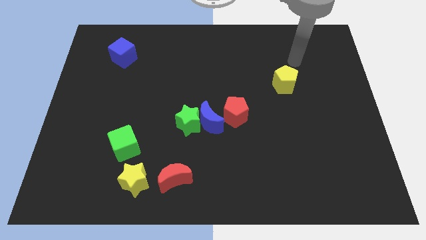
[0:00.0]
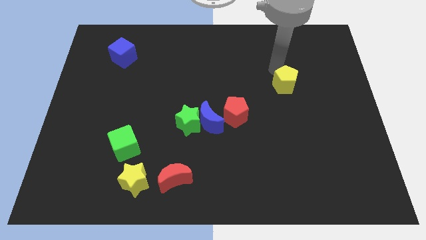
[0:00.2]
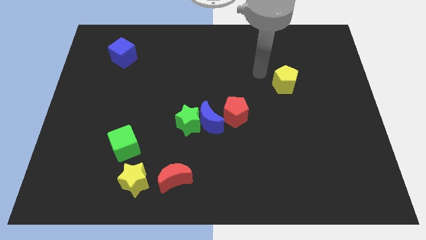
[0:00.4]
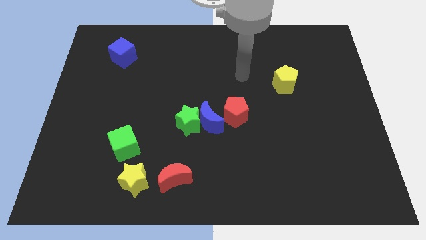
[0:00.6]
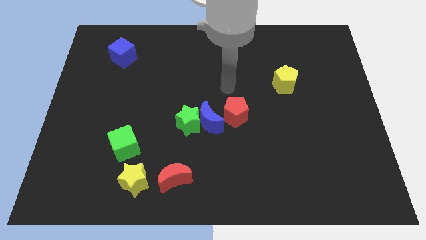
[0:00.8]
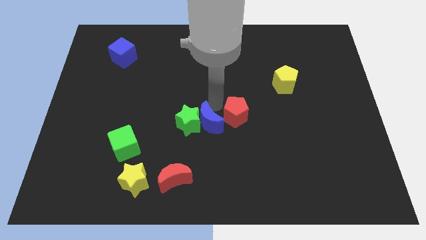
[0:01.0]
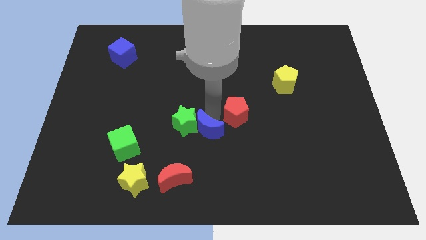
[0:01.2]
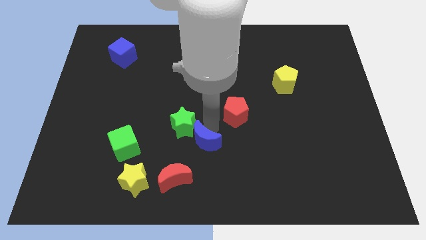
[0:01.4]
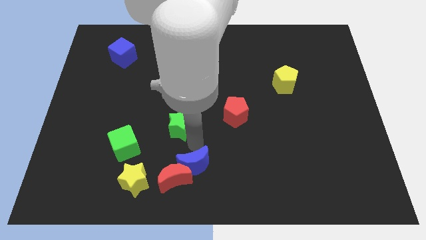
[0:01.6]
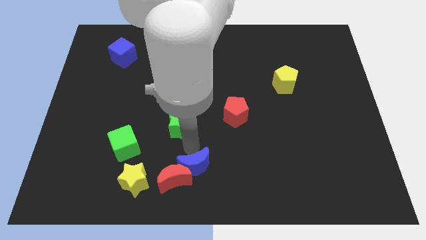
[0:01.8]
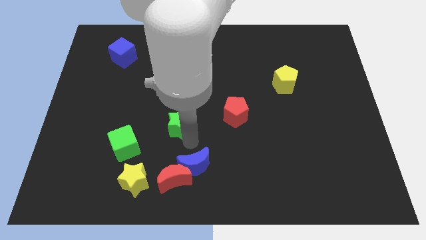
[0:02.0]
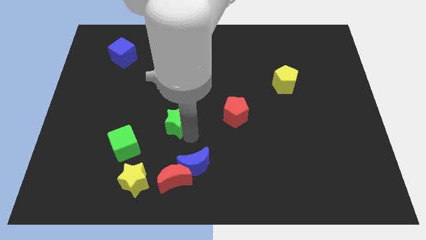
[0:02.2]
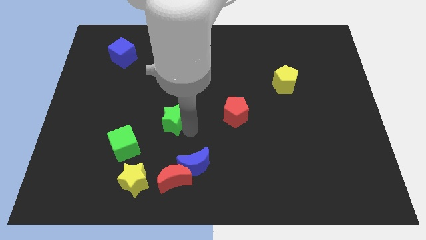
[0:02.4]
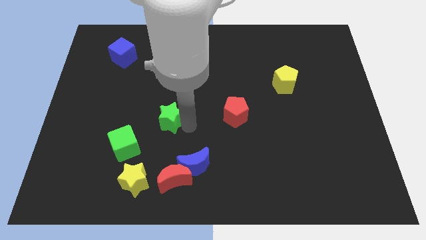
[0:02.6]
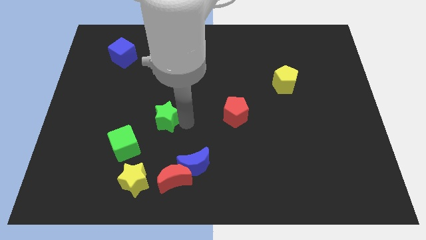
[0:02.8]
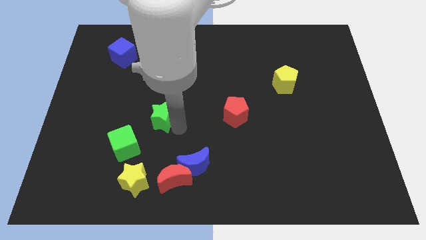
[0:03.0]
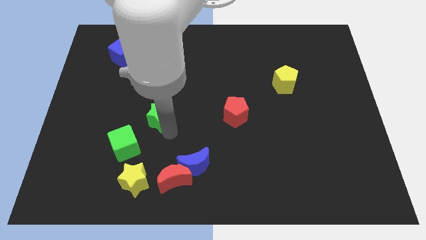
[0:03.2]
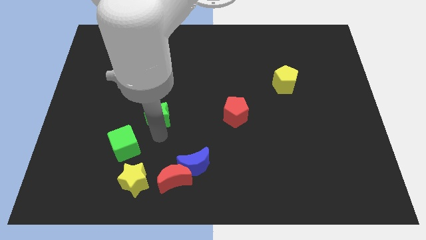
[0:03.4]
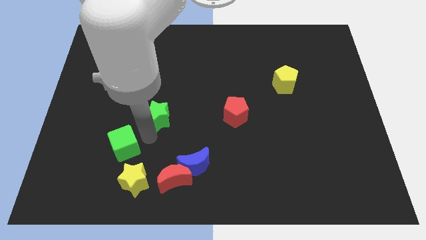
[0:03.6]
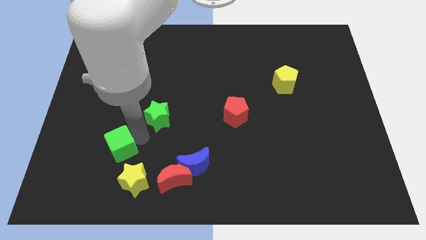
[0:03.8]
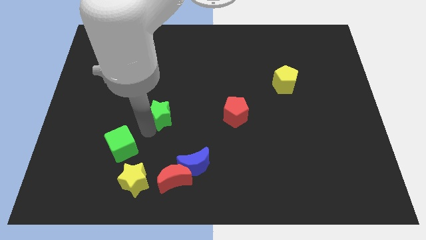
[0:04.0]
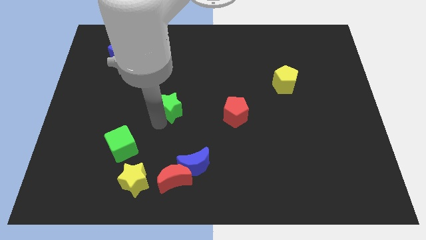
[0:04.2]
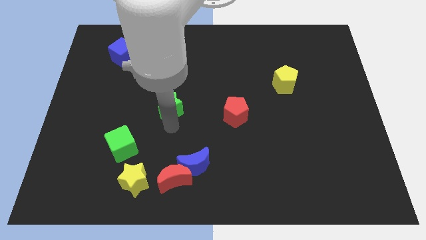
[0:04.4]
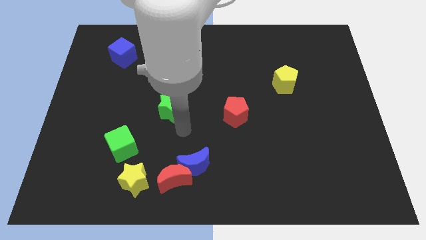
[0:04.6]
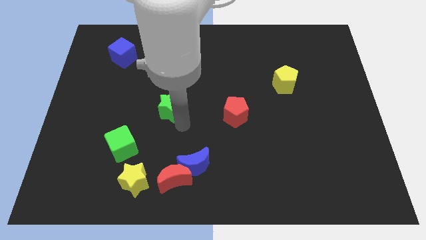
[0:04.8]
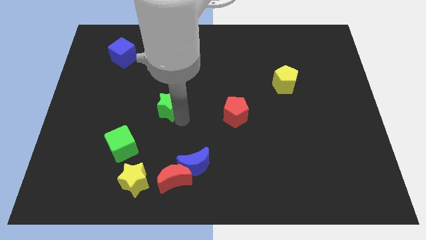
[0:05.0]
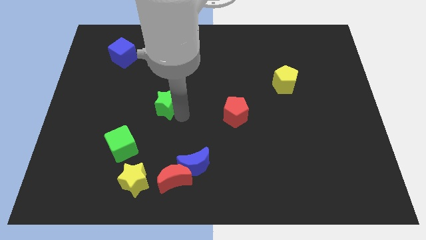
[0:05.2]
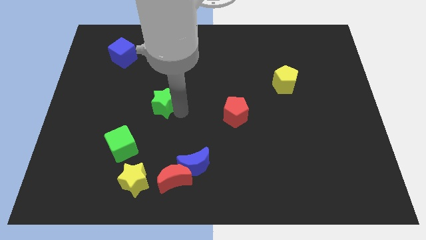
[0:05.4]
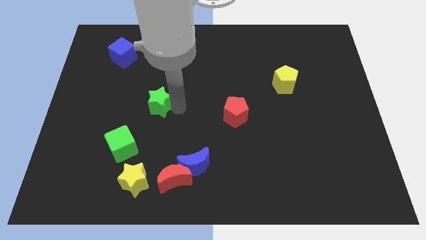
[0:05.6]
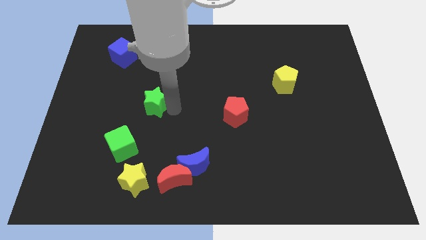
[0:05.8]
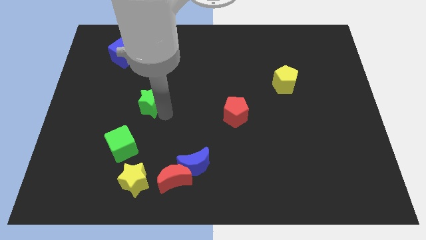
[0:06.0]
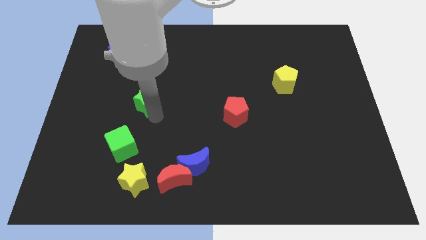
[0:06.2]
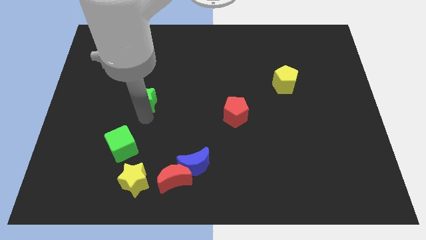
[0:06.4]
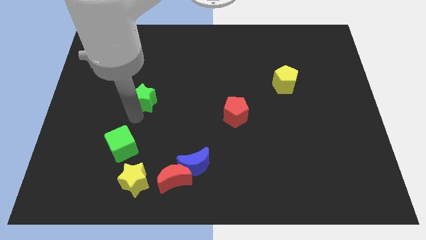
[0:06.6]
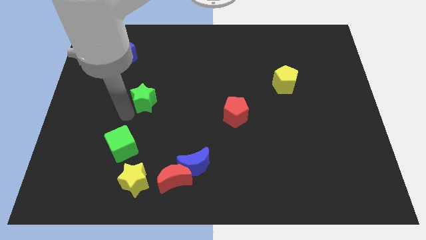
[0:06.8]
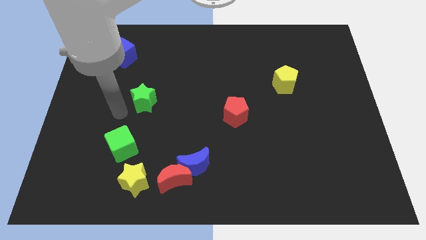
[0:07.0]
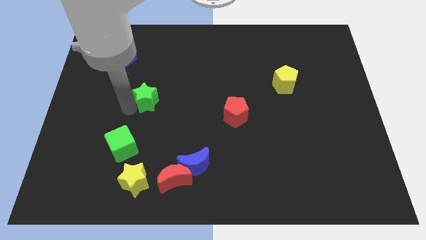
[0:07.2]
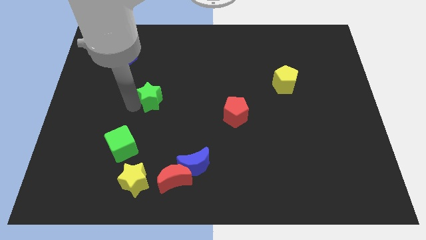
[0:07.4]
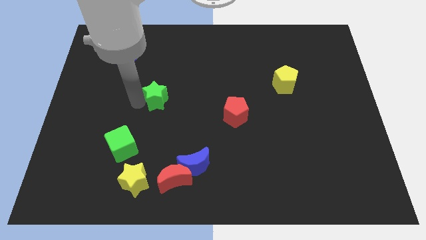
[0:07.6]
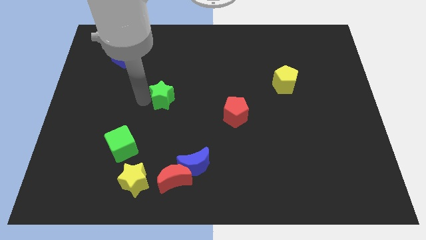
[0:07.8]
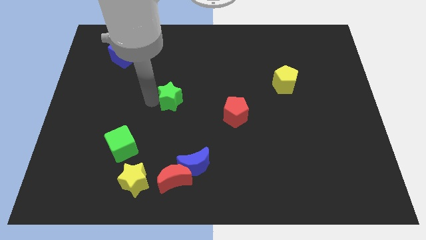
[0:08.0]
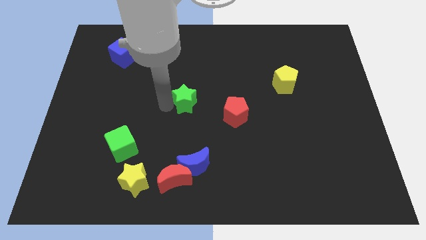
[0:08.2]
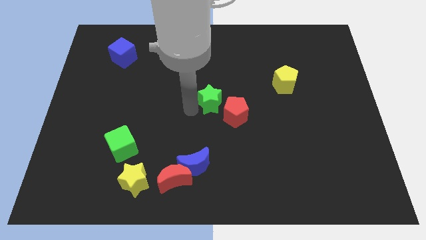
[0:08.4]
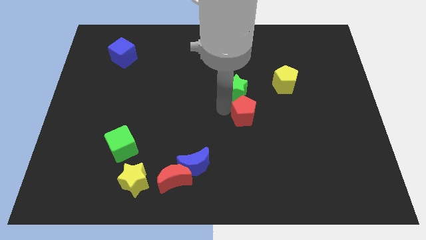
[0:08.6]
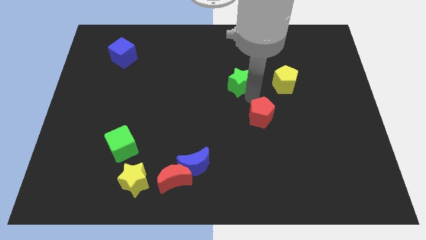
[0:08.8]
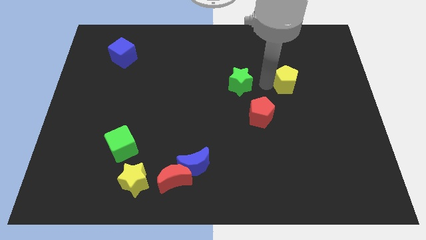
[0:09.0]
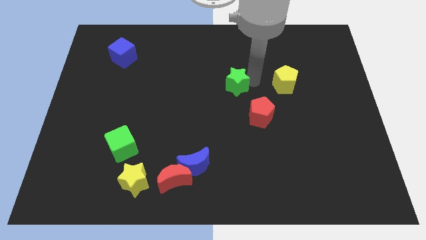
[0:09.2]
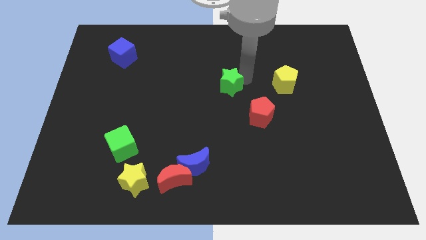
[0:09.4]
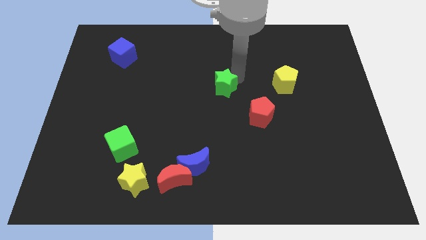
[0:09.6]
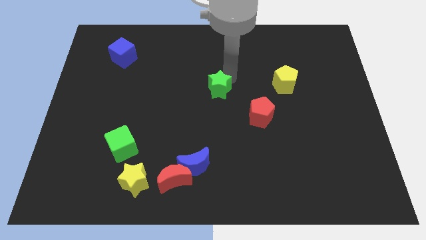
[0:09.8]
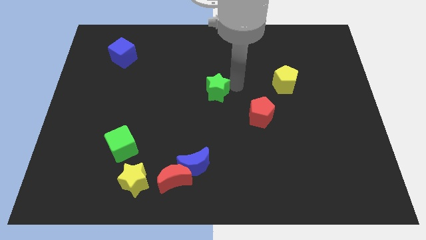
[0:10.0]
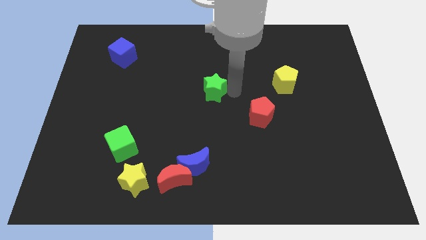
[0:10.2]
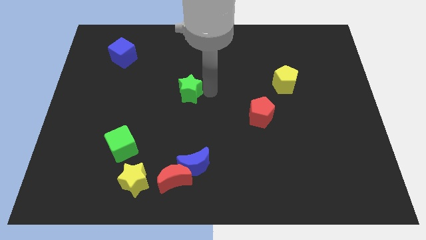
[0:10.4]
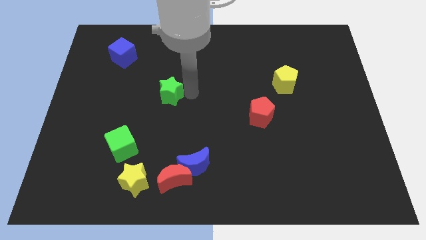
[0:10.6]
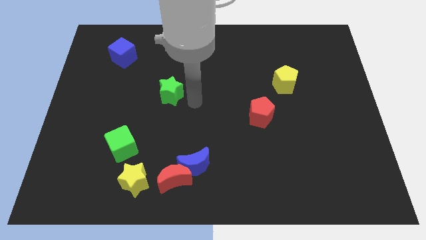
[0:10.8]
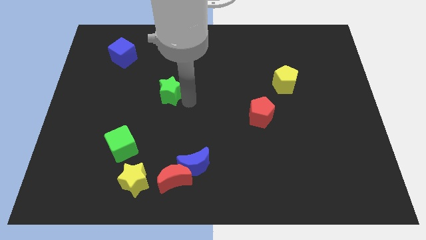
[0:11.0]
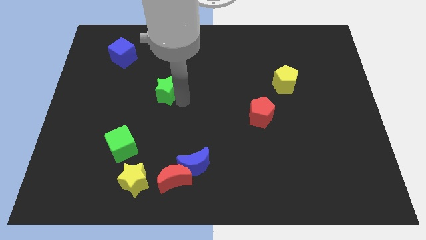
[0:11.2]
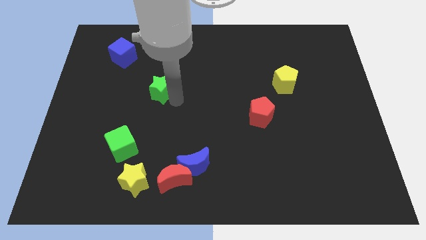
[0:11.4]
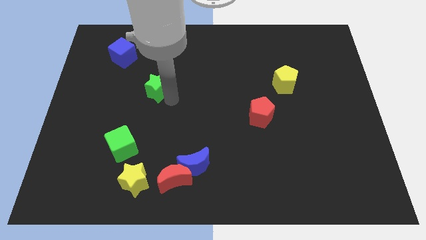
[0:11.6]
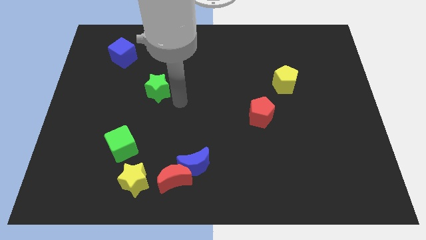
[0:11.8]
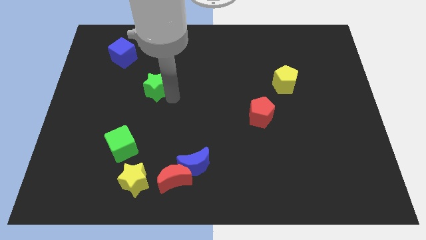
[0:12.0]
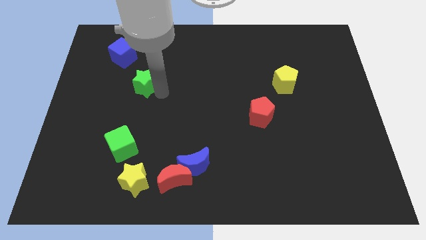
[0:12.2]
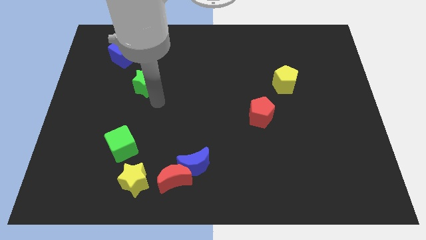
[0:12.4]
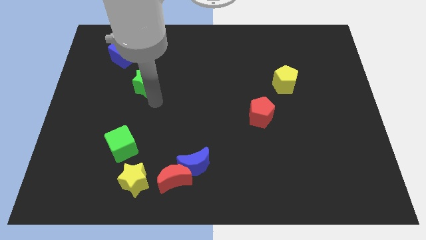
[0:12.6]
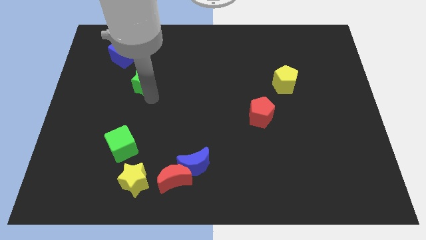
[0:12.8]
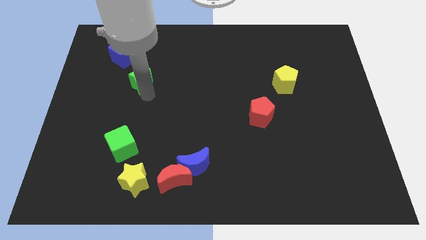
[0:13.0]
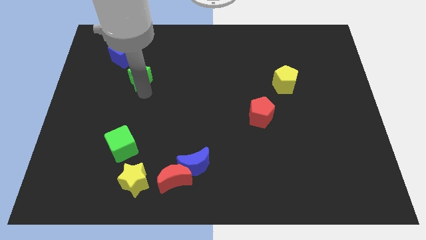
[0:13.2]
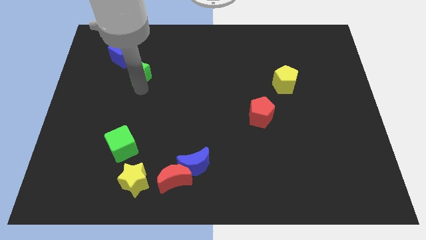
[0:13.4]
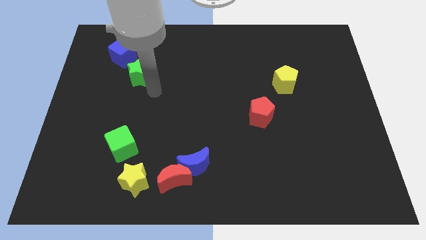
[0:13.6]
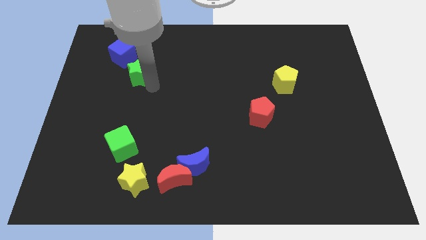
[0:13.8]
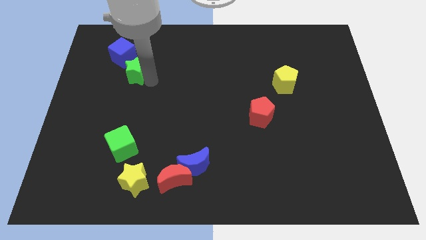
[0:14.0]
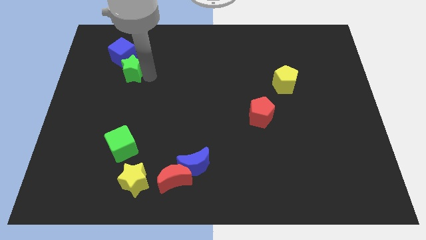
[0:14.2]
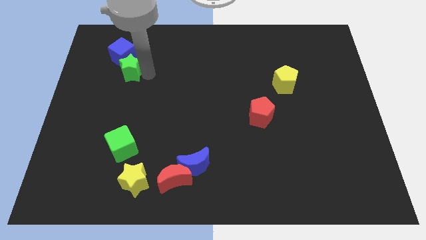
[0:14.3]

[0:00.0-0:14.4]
slide the green star next to the blue cube
